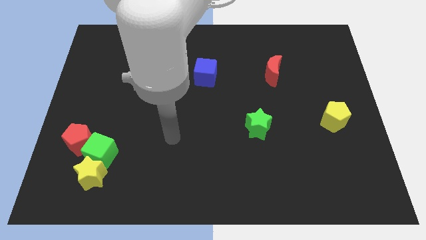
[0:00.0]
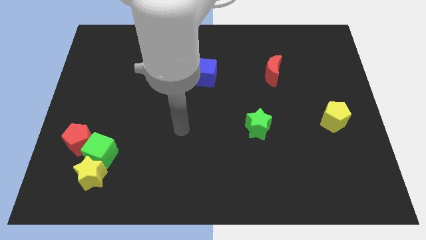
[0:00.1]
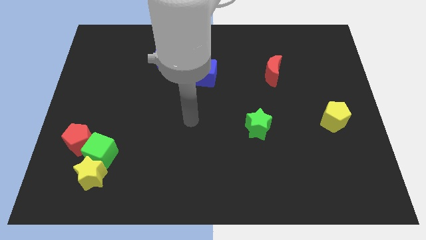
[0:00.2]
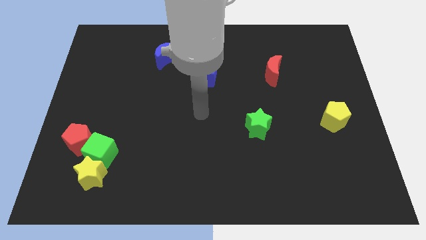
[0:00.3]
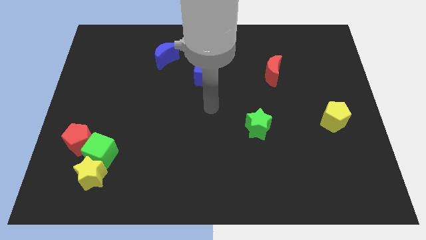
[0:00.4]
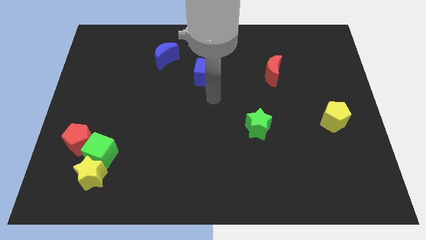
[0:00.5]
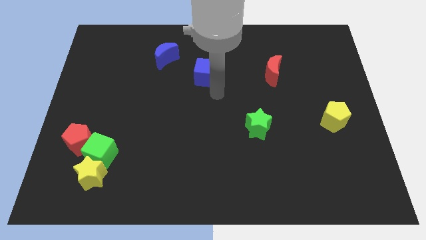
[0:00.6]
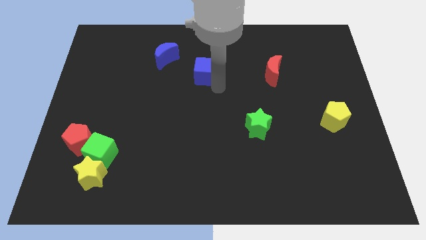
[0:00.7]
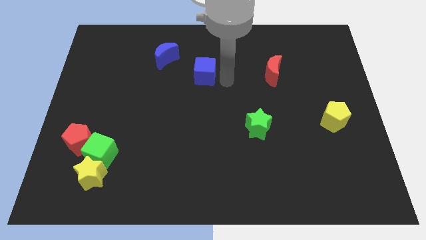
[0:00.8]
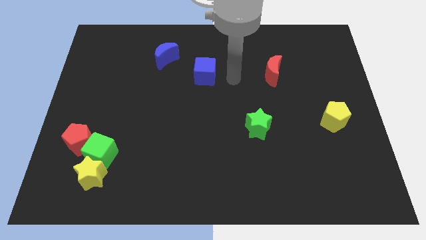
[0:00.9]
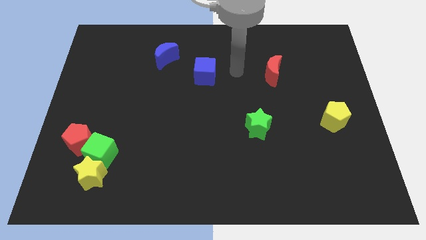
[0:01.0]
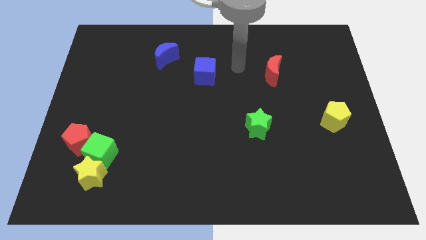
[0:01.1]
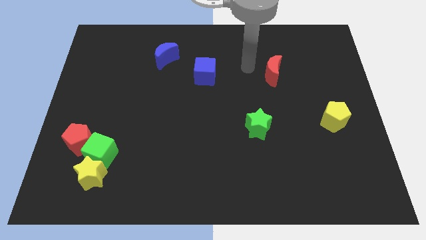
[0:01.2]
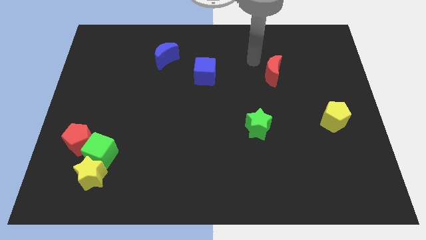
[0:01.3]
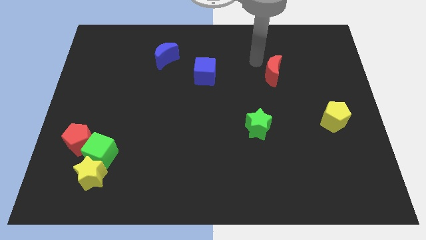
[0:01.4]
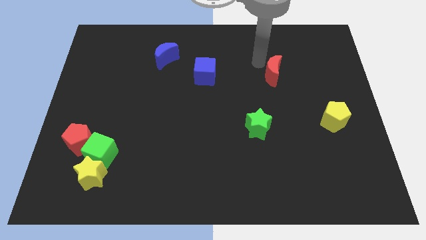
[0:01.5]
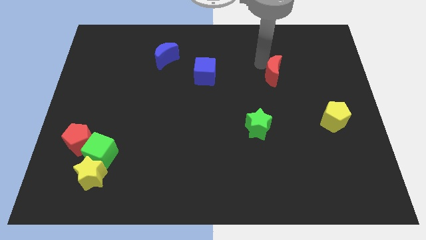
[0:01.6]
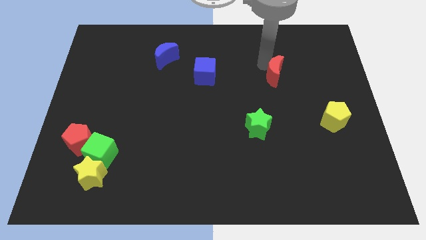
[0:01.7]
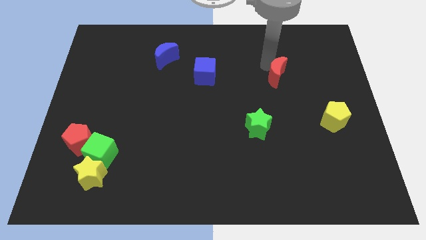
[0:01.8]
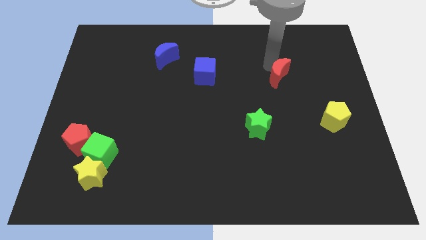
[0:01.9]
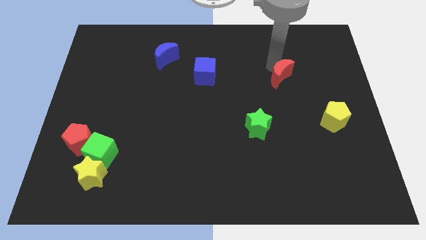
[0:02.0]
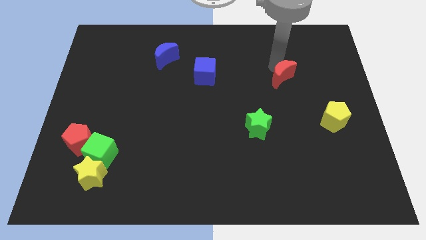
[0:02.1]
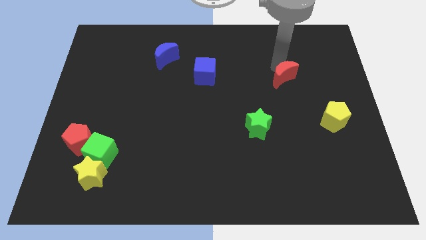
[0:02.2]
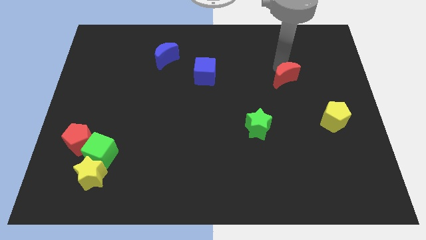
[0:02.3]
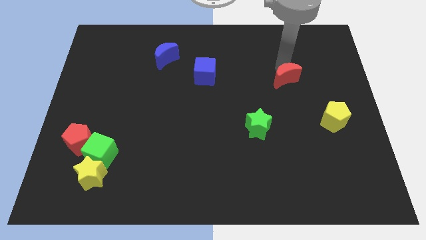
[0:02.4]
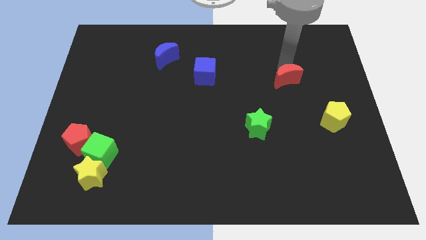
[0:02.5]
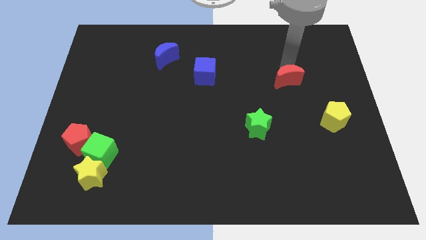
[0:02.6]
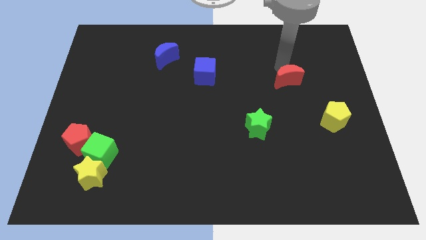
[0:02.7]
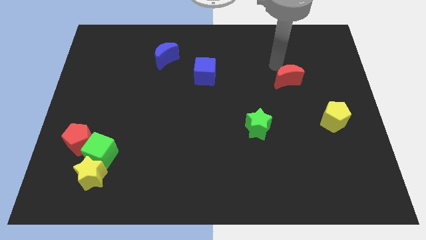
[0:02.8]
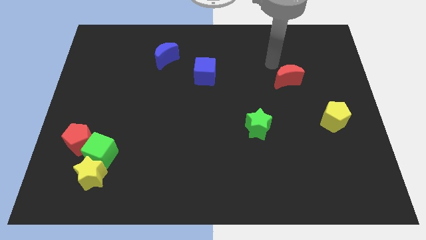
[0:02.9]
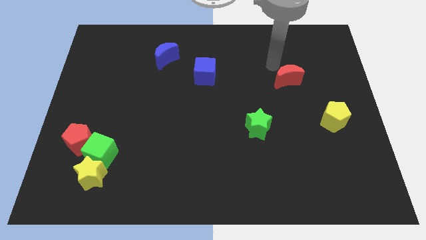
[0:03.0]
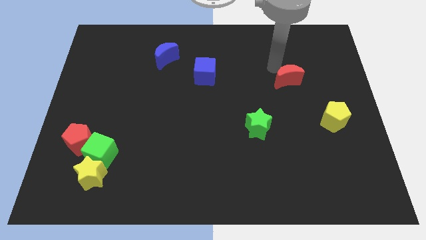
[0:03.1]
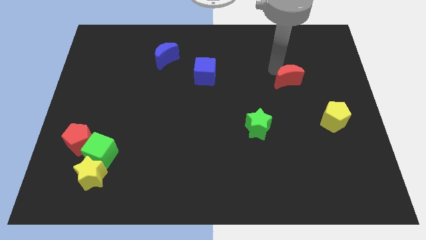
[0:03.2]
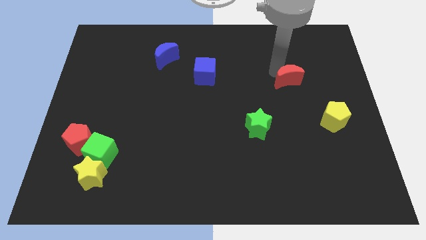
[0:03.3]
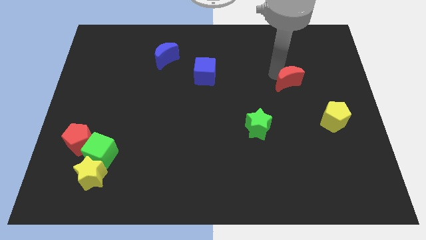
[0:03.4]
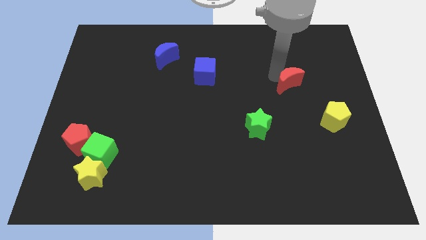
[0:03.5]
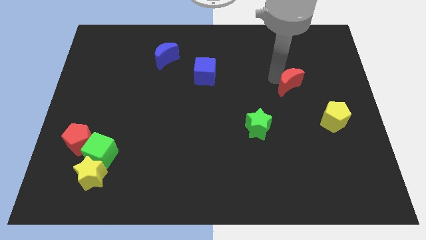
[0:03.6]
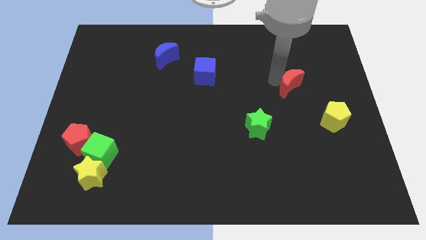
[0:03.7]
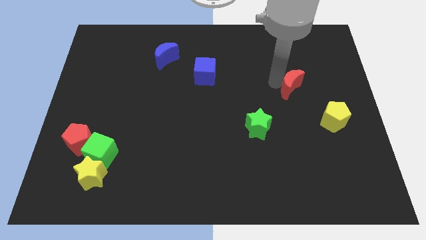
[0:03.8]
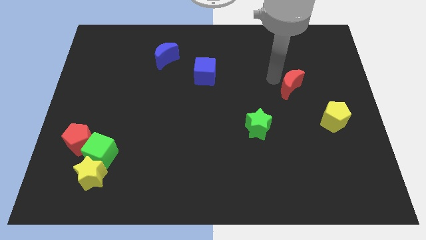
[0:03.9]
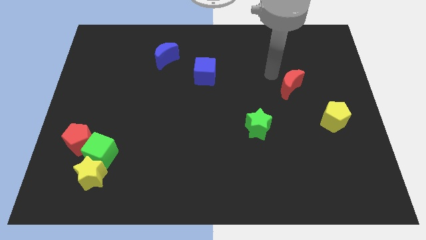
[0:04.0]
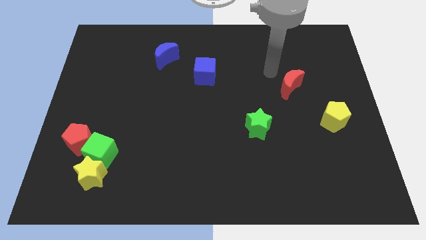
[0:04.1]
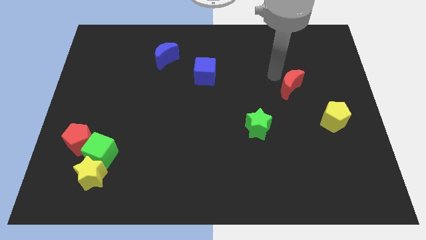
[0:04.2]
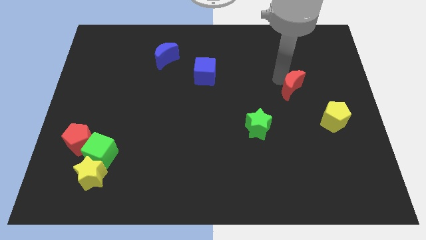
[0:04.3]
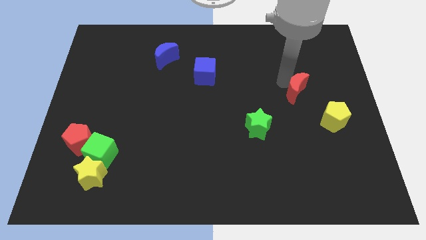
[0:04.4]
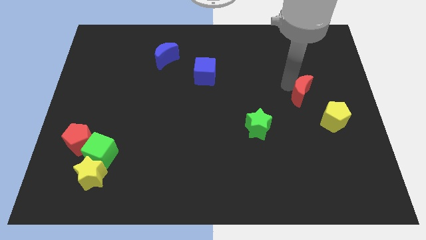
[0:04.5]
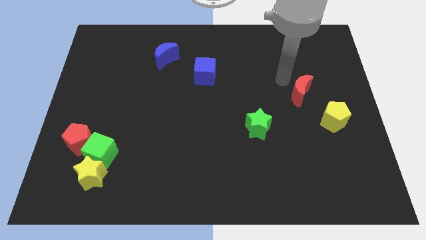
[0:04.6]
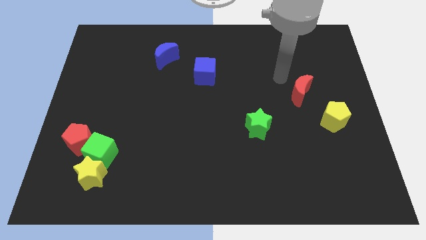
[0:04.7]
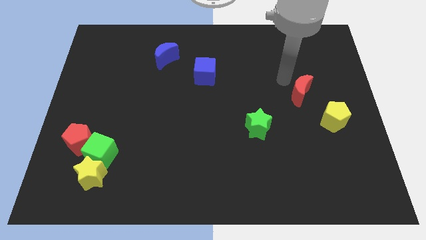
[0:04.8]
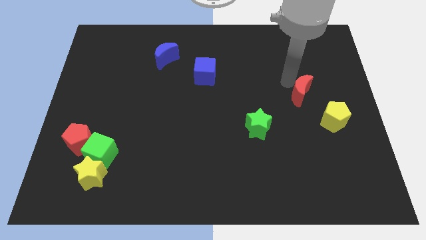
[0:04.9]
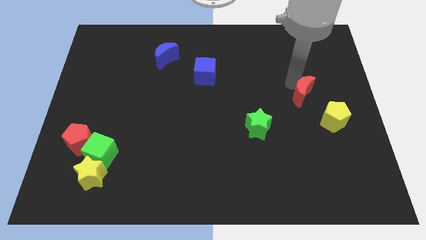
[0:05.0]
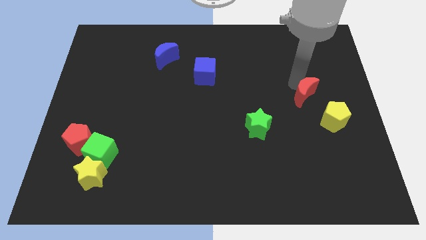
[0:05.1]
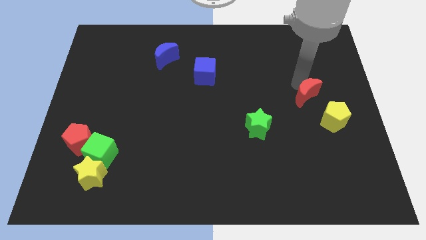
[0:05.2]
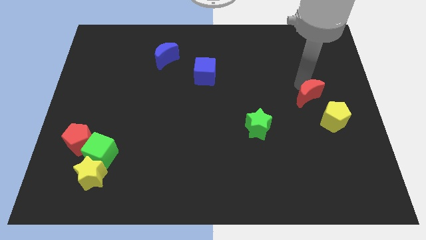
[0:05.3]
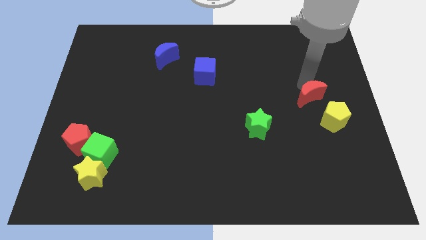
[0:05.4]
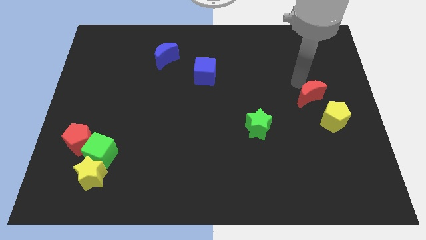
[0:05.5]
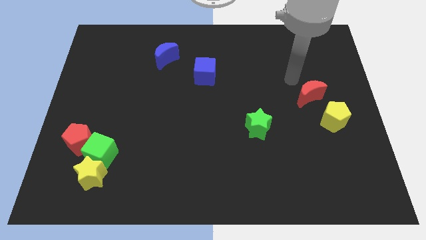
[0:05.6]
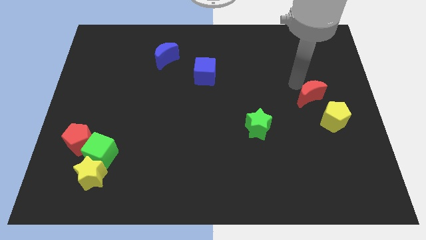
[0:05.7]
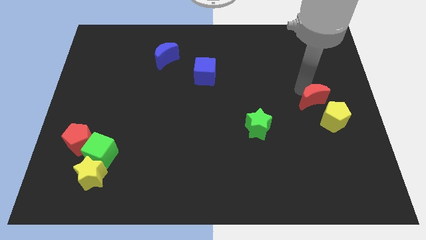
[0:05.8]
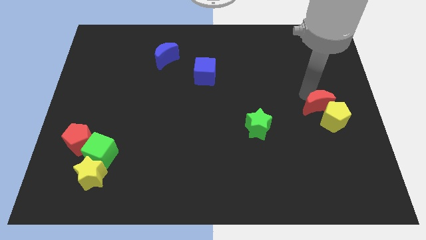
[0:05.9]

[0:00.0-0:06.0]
slide the red moon next to the yellow pentagon

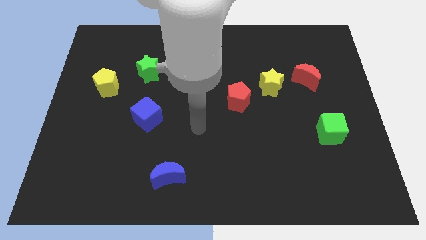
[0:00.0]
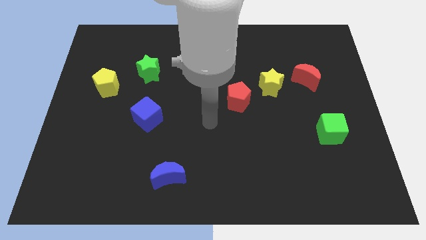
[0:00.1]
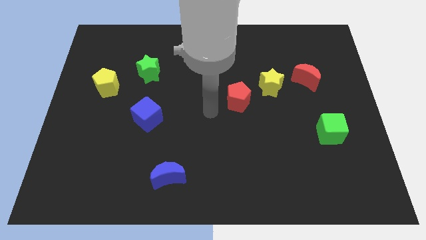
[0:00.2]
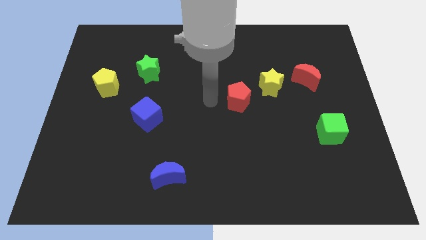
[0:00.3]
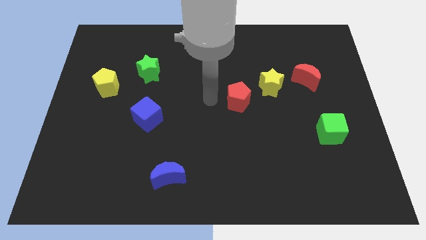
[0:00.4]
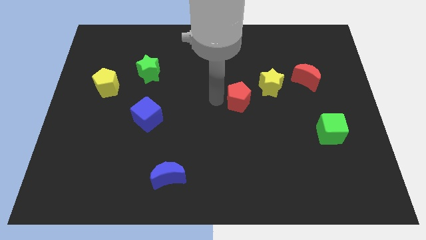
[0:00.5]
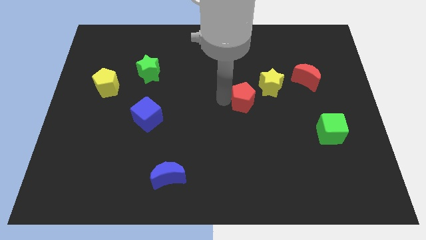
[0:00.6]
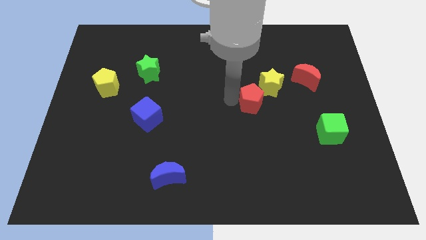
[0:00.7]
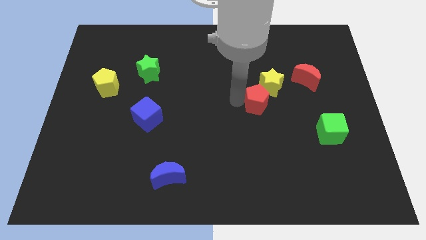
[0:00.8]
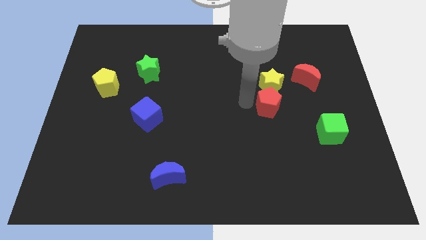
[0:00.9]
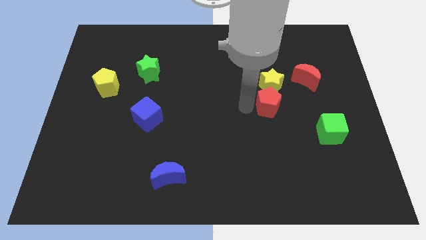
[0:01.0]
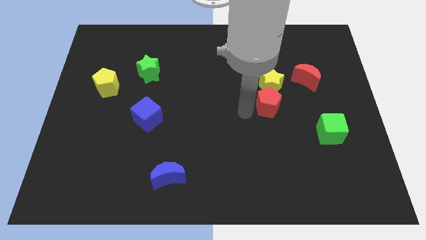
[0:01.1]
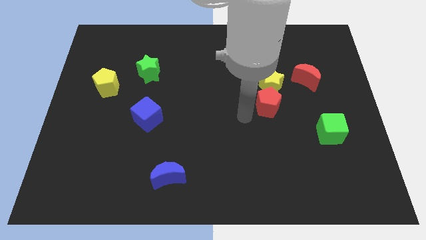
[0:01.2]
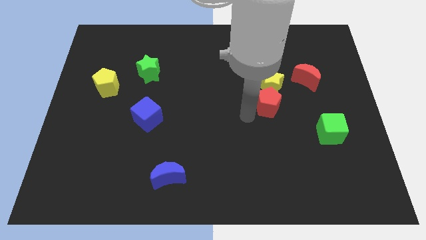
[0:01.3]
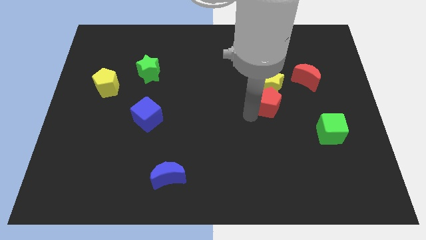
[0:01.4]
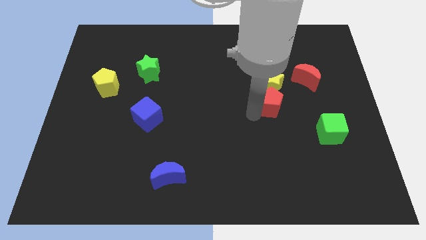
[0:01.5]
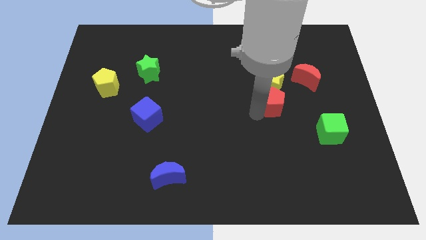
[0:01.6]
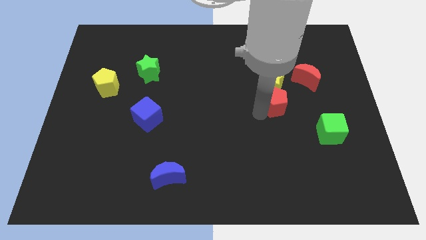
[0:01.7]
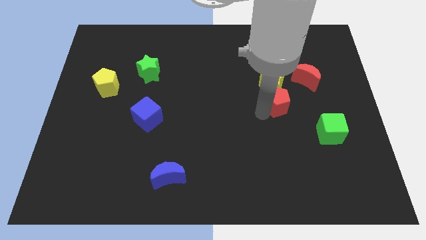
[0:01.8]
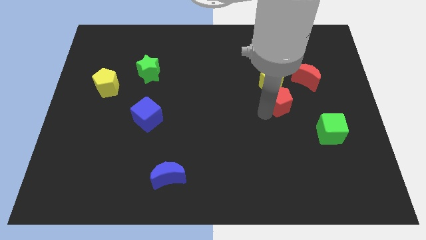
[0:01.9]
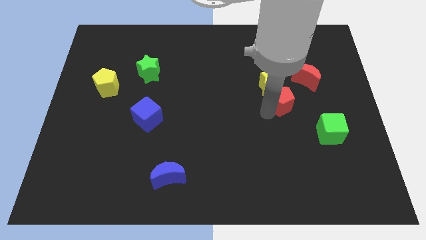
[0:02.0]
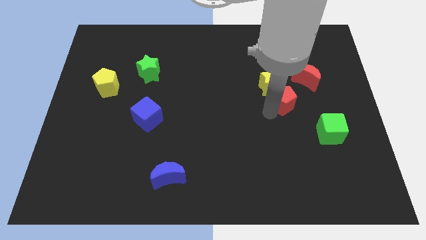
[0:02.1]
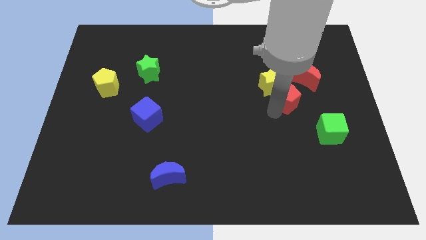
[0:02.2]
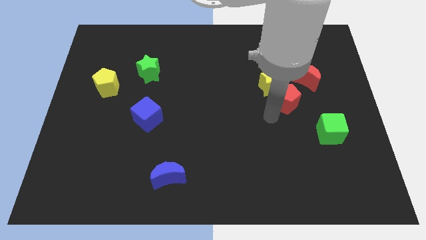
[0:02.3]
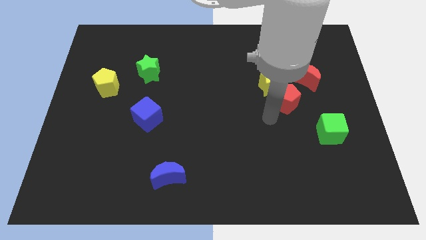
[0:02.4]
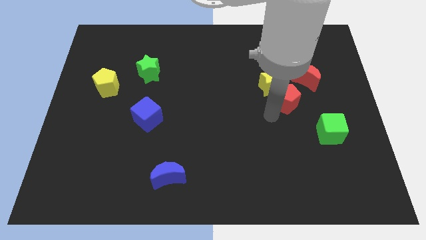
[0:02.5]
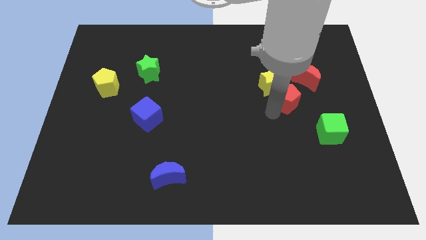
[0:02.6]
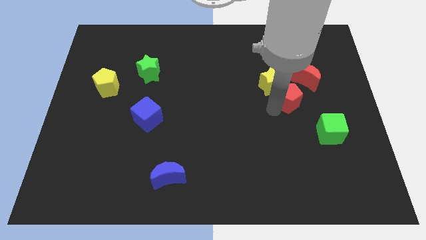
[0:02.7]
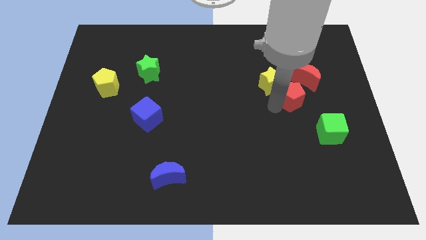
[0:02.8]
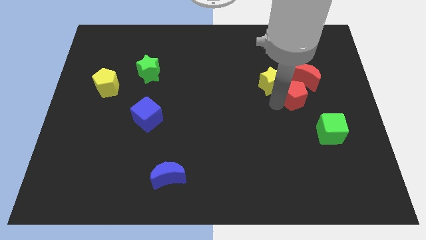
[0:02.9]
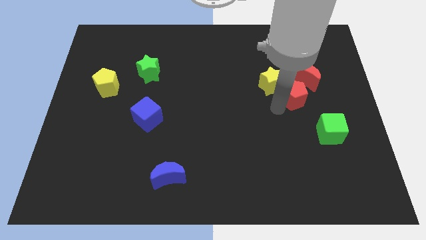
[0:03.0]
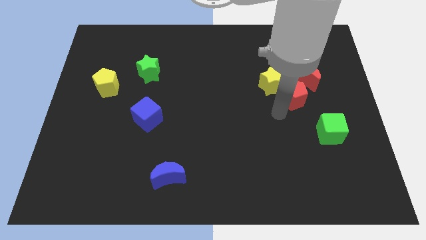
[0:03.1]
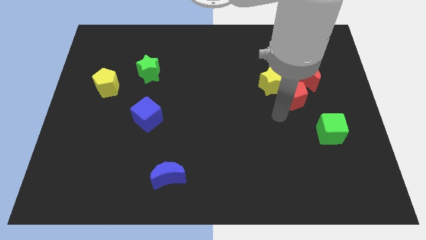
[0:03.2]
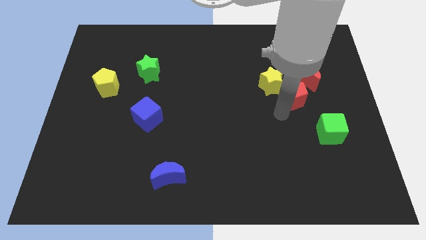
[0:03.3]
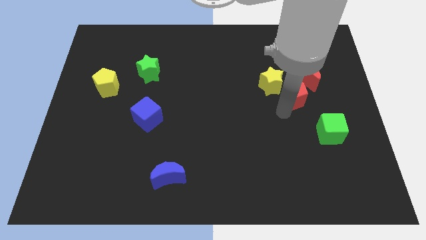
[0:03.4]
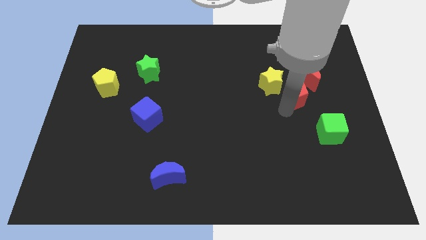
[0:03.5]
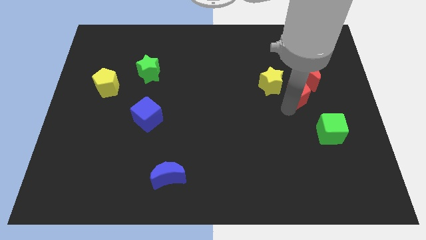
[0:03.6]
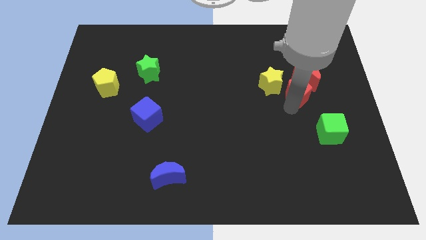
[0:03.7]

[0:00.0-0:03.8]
push the red pentagon next to the red moon
